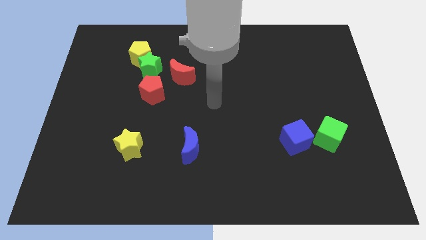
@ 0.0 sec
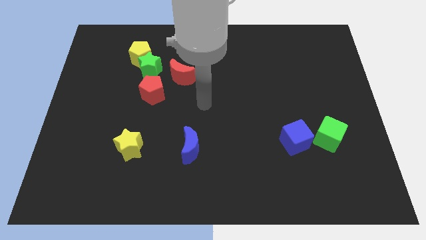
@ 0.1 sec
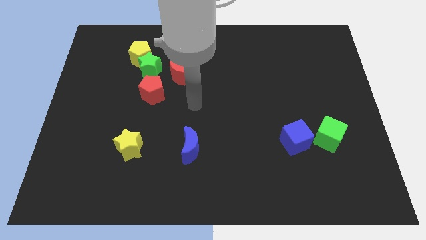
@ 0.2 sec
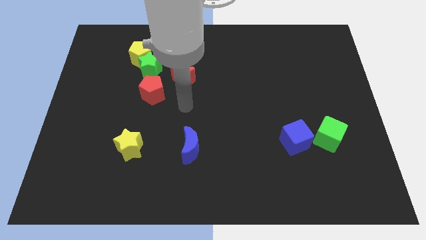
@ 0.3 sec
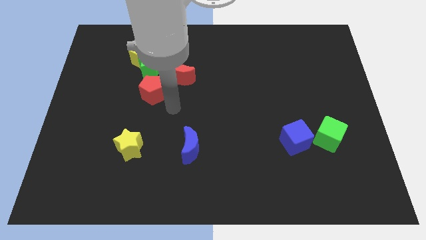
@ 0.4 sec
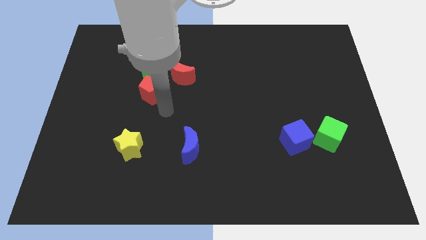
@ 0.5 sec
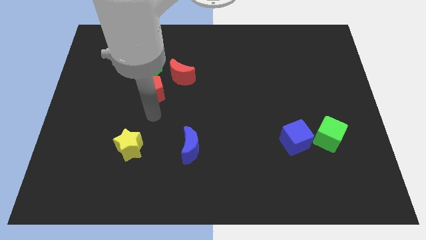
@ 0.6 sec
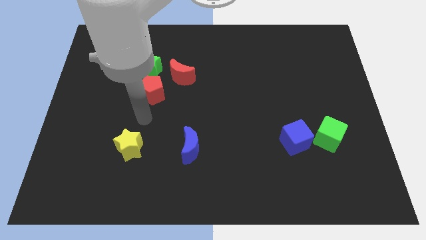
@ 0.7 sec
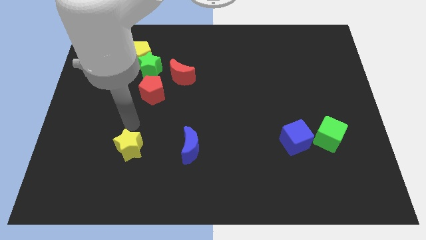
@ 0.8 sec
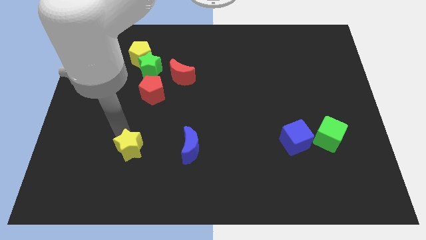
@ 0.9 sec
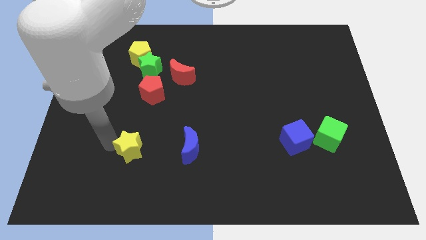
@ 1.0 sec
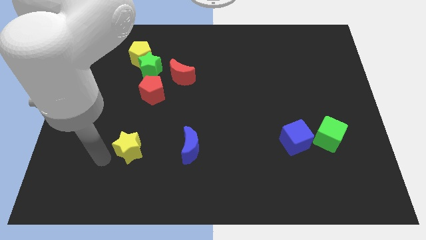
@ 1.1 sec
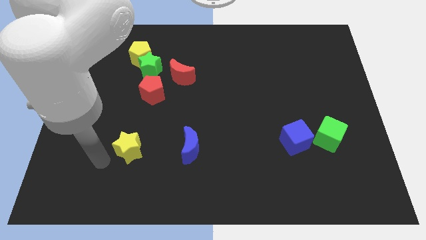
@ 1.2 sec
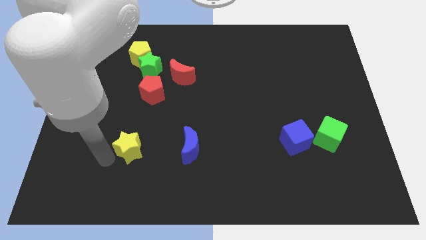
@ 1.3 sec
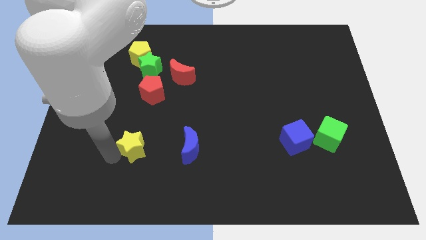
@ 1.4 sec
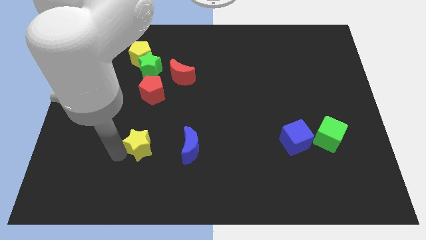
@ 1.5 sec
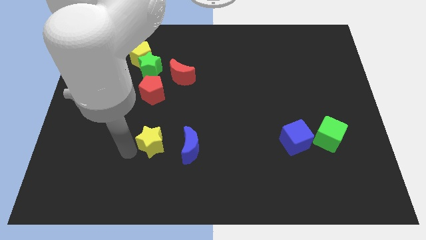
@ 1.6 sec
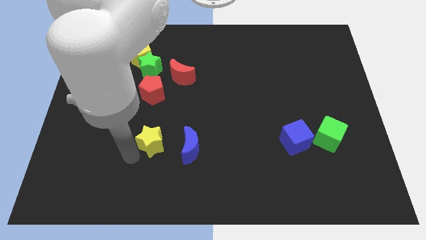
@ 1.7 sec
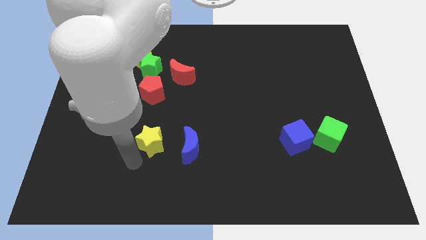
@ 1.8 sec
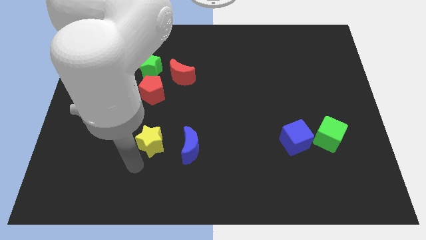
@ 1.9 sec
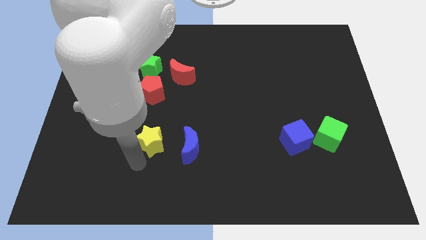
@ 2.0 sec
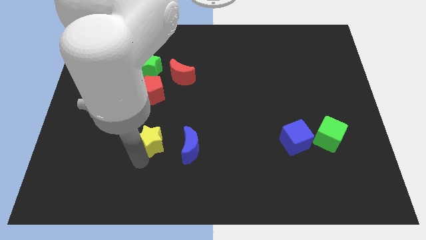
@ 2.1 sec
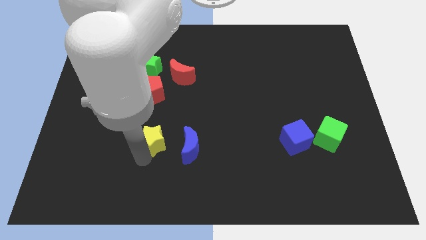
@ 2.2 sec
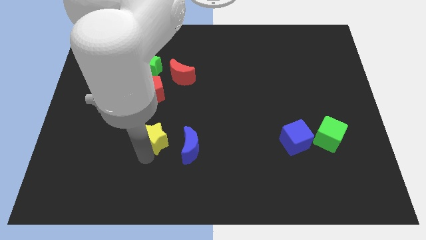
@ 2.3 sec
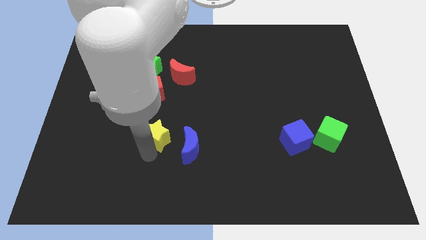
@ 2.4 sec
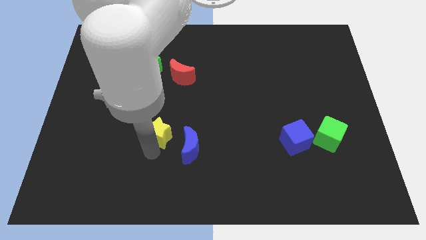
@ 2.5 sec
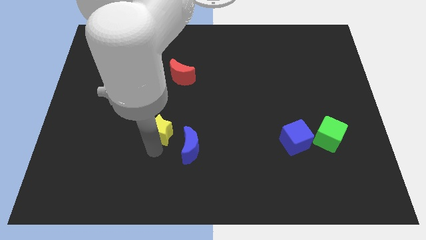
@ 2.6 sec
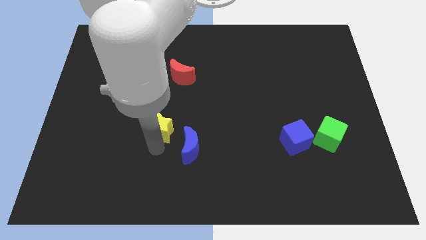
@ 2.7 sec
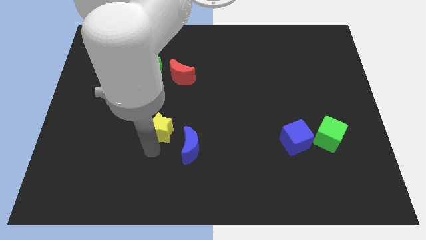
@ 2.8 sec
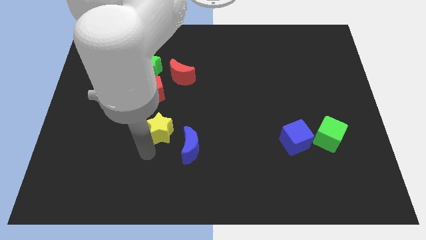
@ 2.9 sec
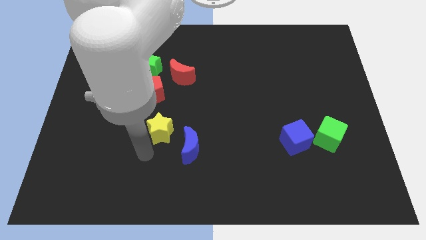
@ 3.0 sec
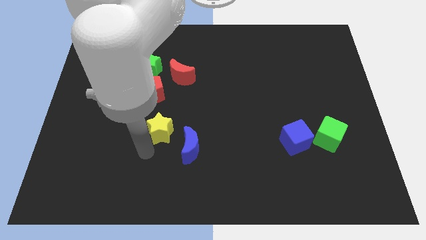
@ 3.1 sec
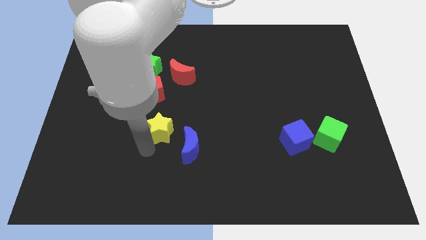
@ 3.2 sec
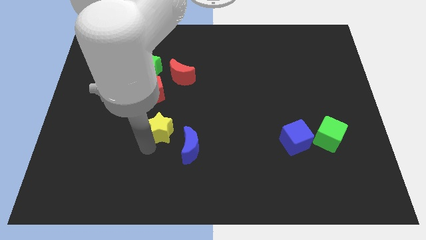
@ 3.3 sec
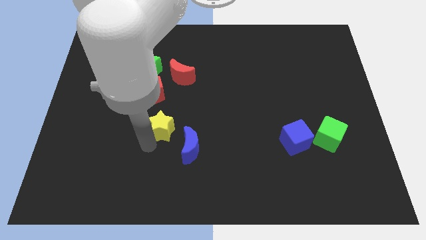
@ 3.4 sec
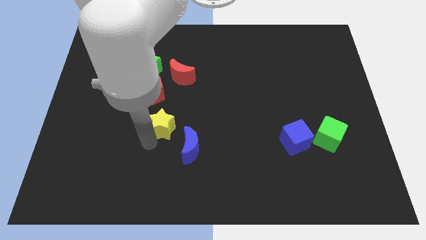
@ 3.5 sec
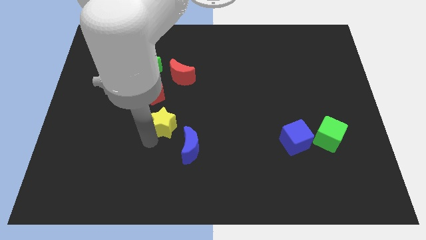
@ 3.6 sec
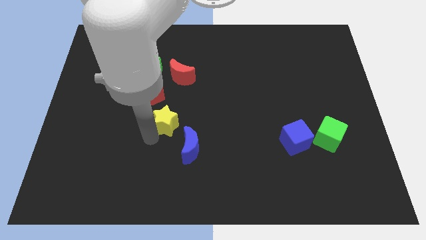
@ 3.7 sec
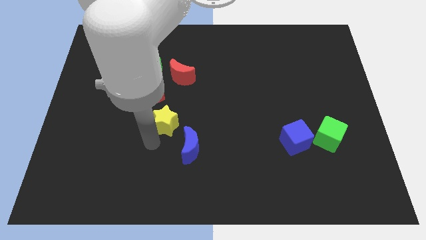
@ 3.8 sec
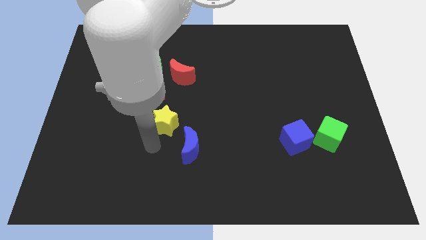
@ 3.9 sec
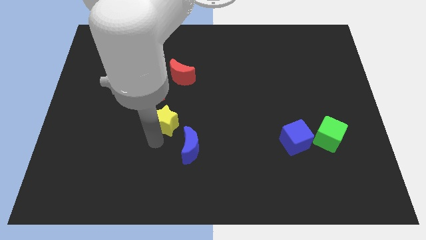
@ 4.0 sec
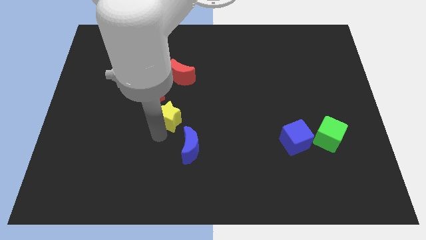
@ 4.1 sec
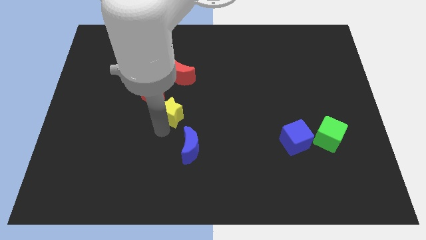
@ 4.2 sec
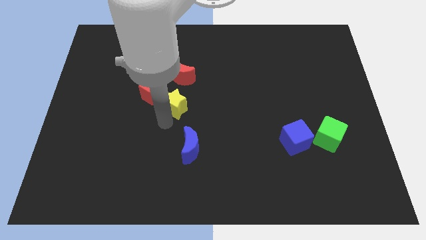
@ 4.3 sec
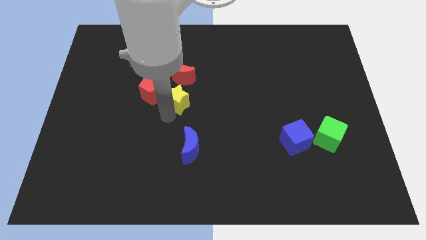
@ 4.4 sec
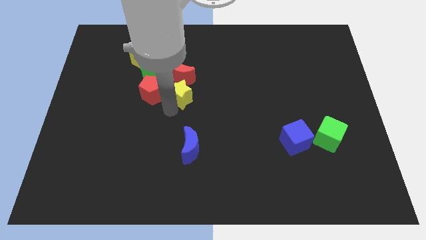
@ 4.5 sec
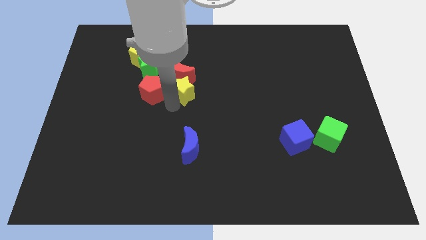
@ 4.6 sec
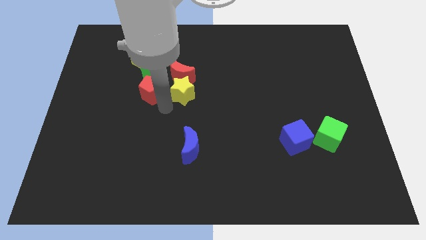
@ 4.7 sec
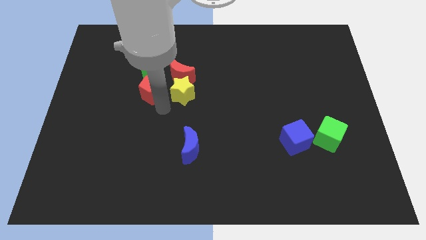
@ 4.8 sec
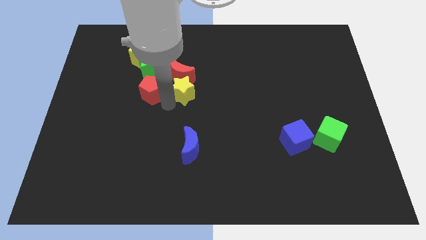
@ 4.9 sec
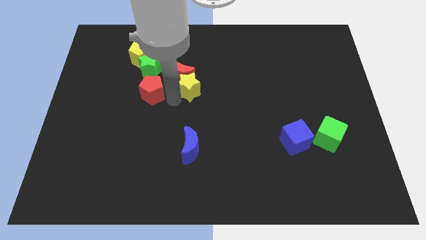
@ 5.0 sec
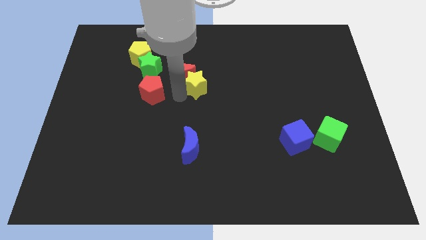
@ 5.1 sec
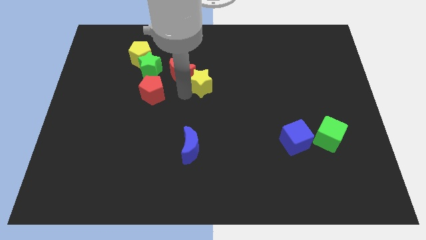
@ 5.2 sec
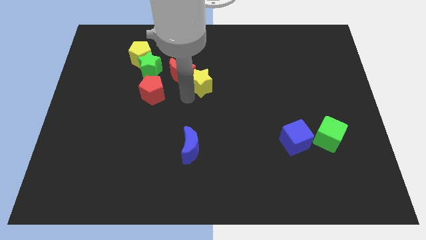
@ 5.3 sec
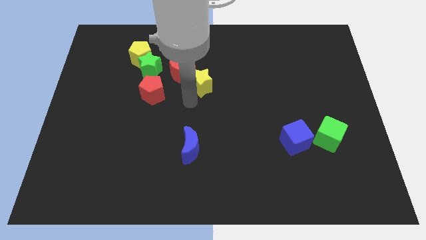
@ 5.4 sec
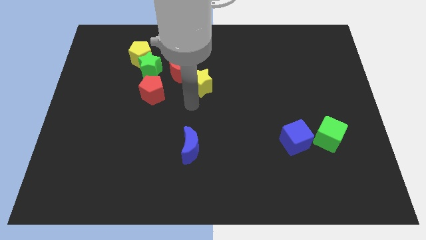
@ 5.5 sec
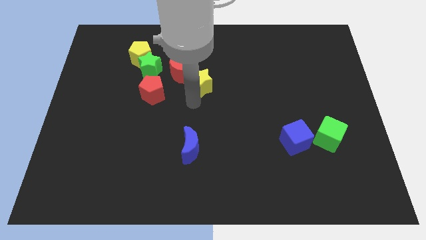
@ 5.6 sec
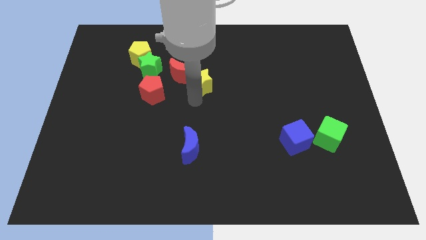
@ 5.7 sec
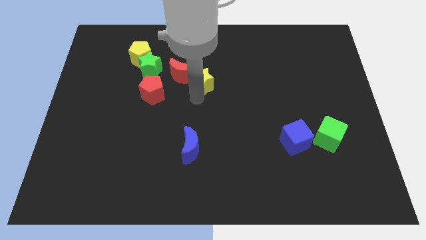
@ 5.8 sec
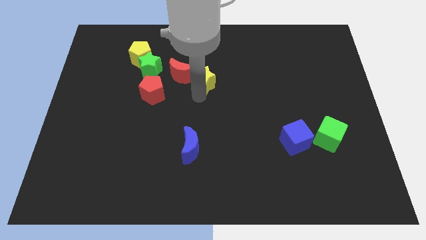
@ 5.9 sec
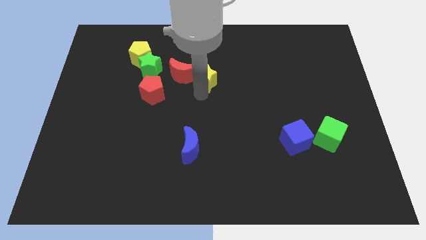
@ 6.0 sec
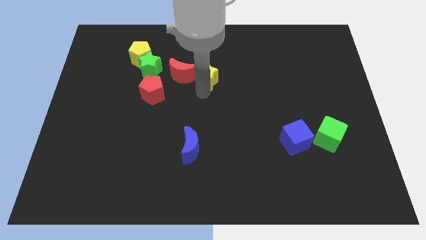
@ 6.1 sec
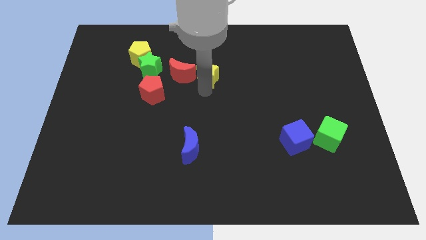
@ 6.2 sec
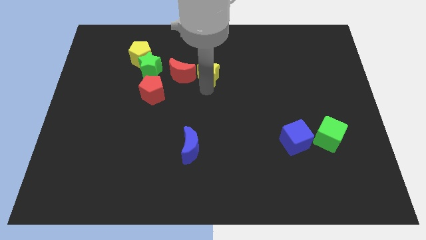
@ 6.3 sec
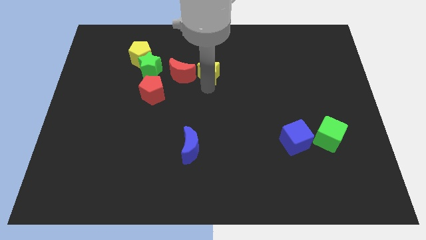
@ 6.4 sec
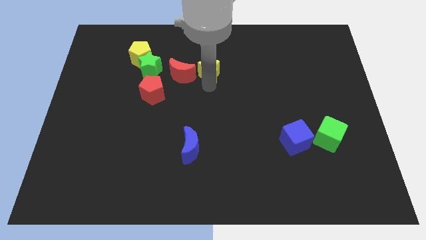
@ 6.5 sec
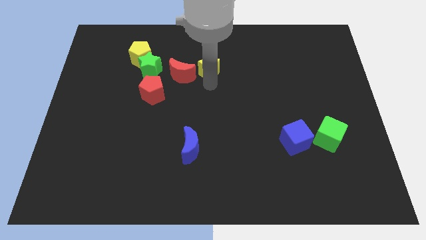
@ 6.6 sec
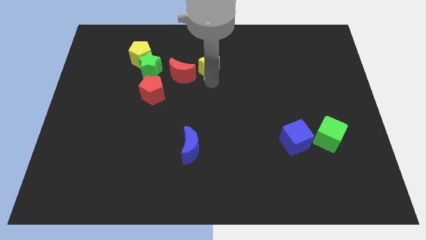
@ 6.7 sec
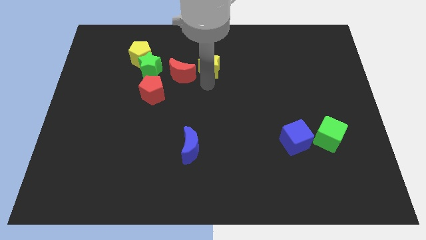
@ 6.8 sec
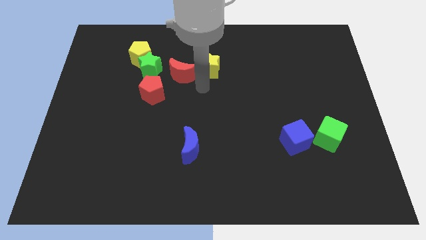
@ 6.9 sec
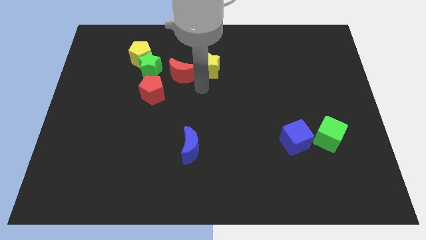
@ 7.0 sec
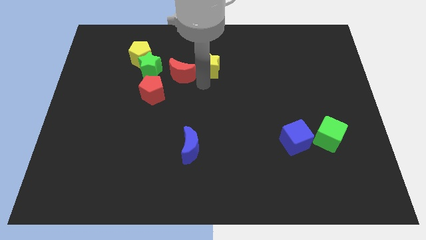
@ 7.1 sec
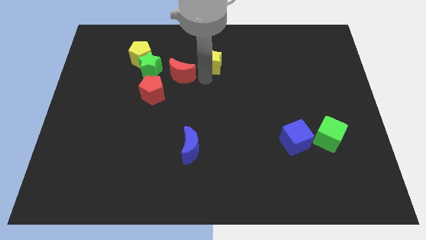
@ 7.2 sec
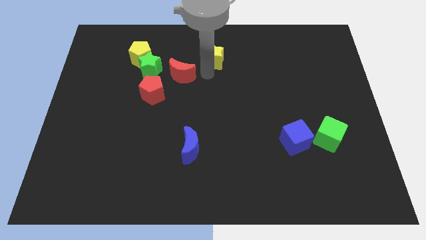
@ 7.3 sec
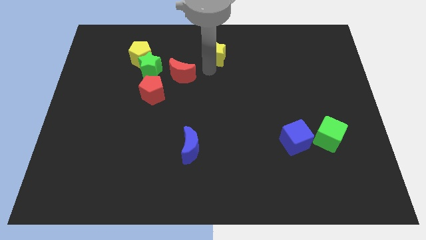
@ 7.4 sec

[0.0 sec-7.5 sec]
put the yellow star to the towards your base

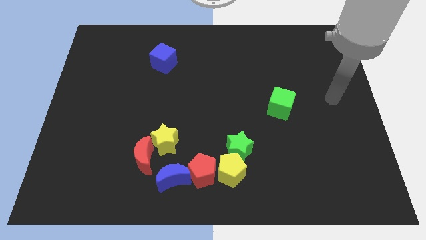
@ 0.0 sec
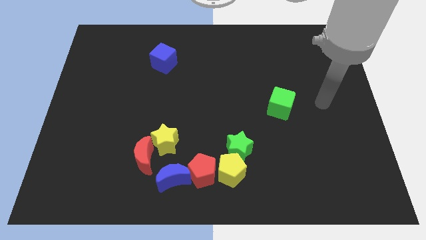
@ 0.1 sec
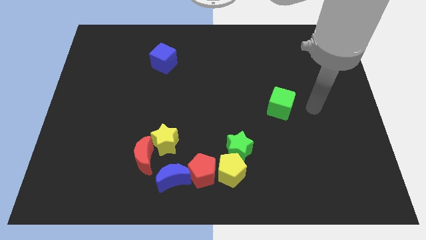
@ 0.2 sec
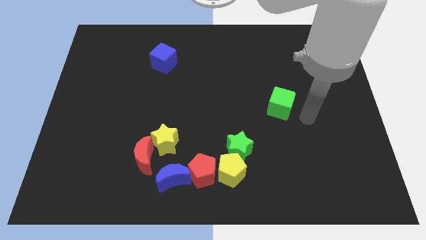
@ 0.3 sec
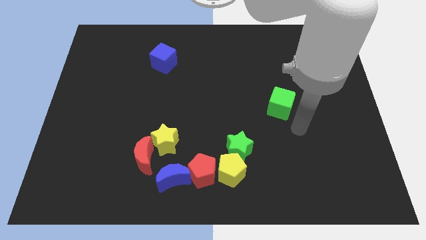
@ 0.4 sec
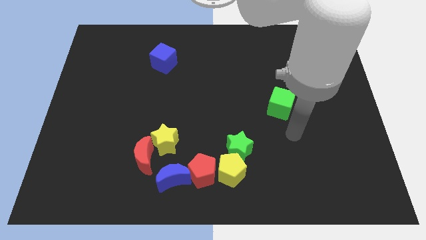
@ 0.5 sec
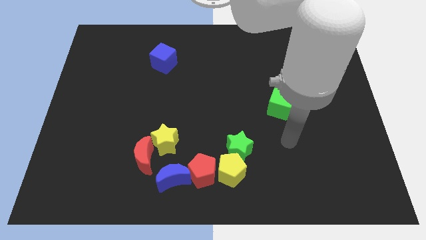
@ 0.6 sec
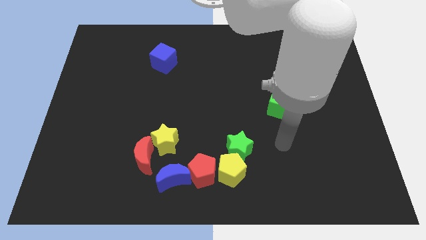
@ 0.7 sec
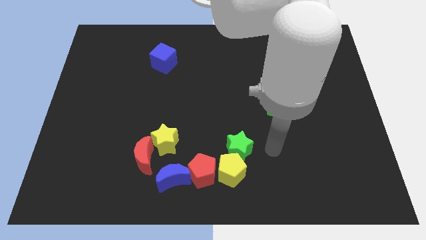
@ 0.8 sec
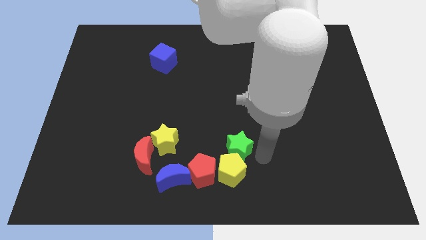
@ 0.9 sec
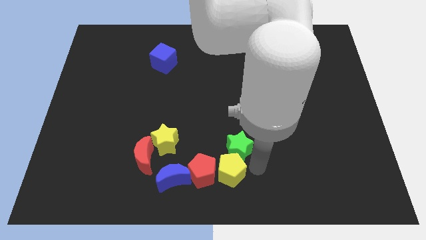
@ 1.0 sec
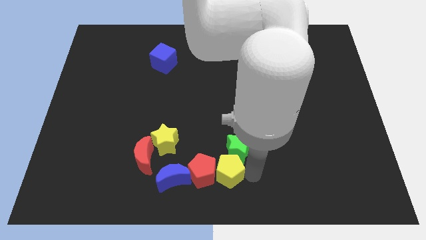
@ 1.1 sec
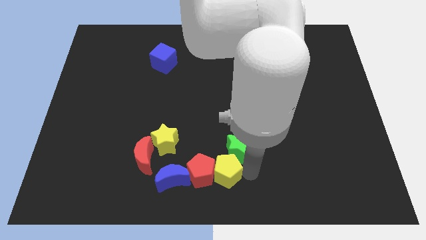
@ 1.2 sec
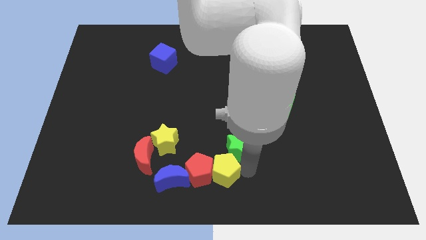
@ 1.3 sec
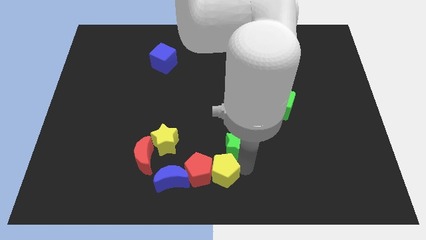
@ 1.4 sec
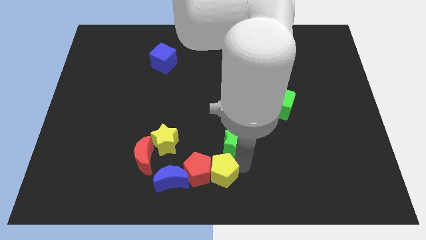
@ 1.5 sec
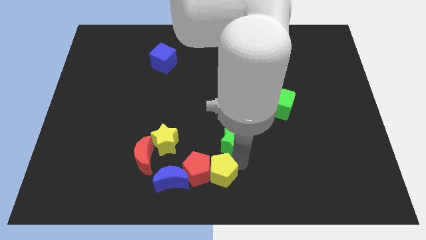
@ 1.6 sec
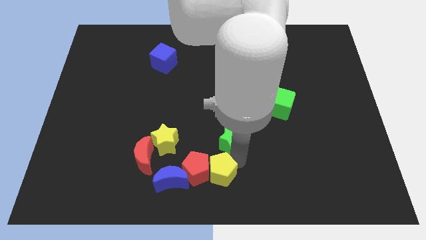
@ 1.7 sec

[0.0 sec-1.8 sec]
push the green star to the center of the board
